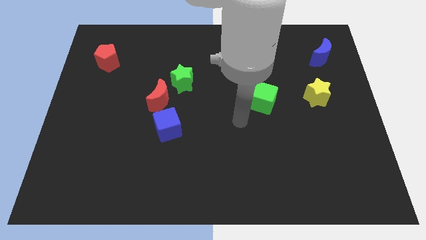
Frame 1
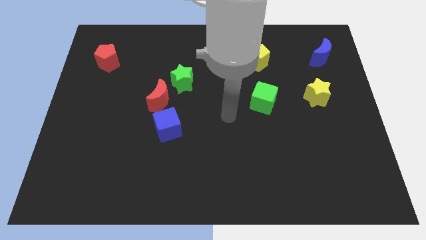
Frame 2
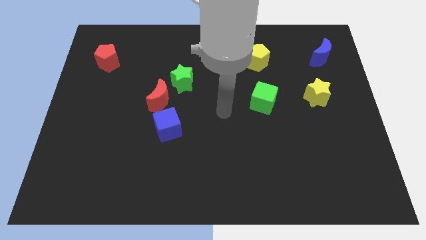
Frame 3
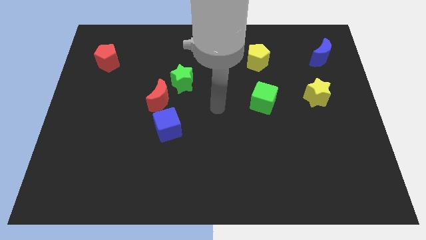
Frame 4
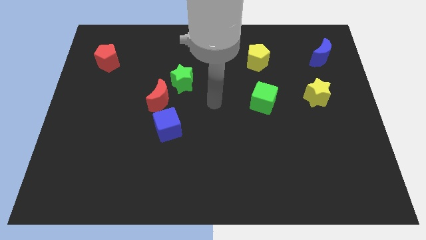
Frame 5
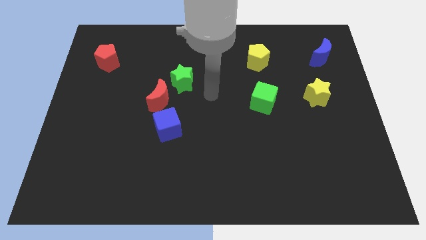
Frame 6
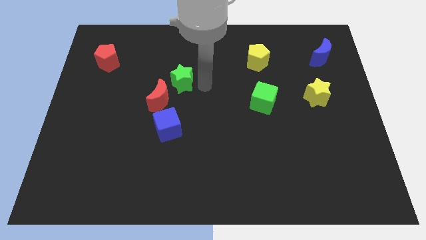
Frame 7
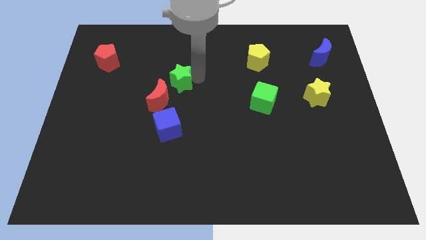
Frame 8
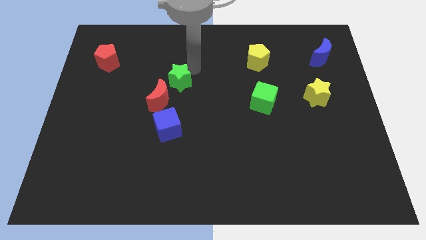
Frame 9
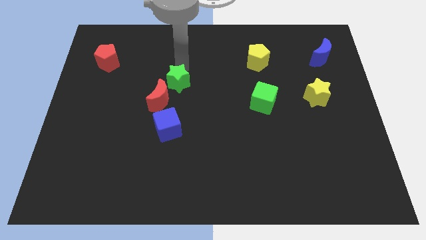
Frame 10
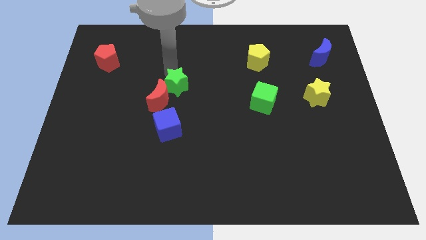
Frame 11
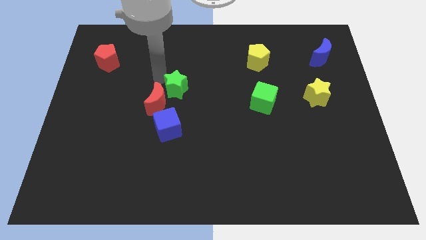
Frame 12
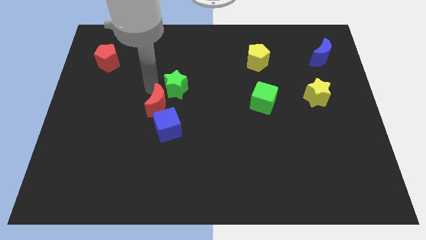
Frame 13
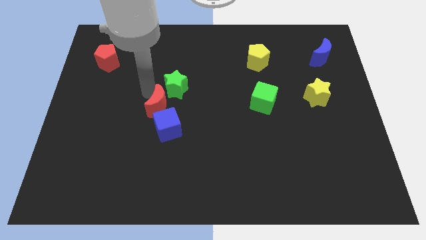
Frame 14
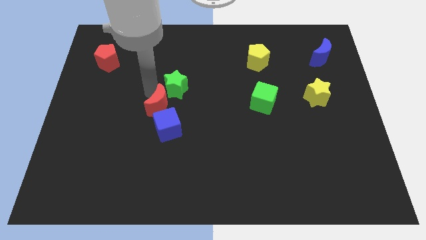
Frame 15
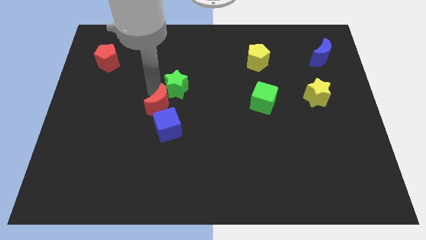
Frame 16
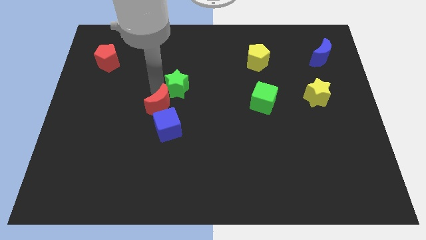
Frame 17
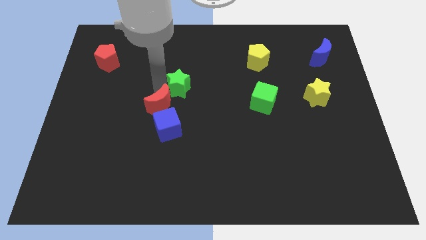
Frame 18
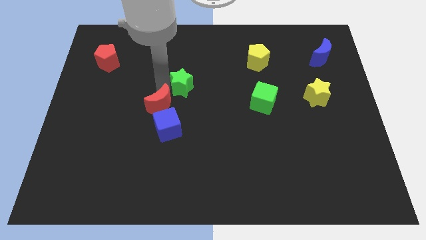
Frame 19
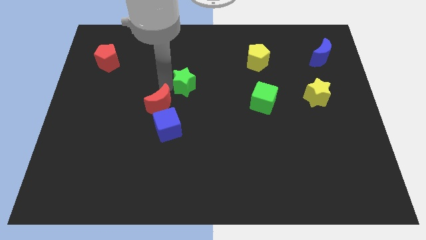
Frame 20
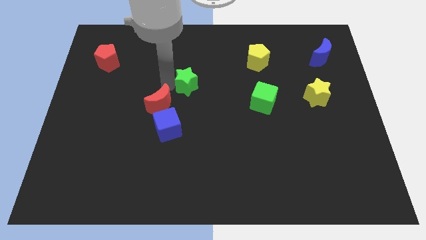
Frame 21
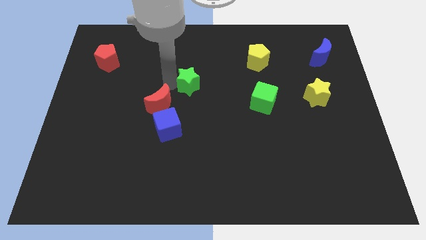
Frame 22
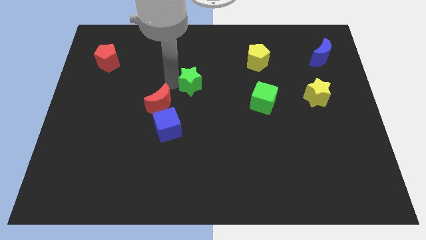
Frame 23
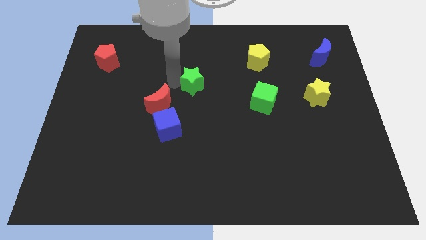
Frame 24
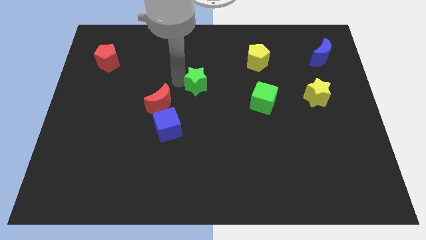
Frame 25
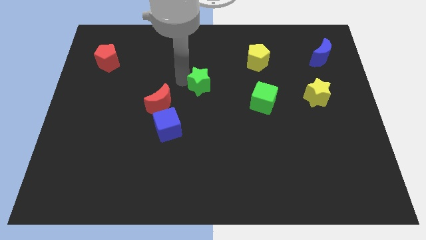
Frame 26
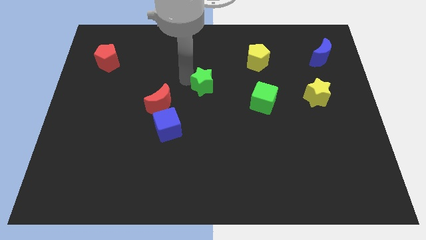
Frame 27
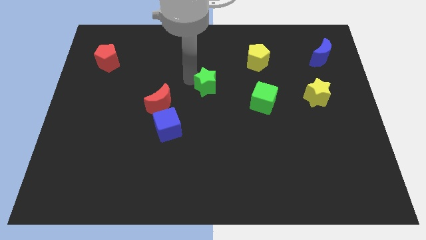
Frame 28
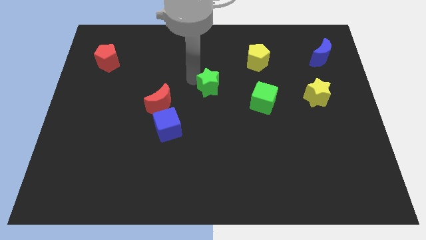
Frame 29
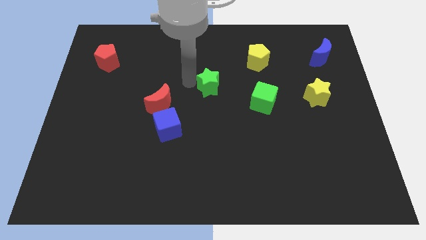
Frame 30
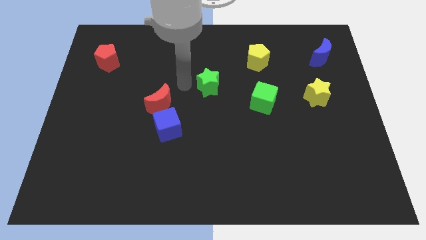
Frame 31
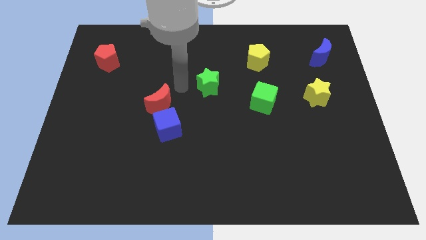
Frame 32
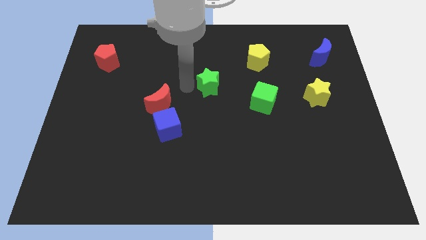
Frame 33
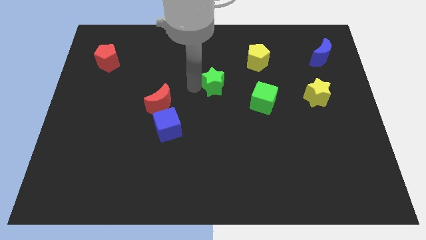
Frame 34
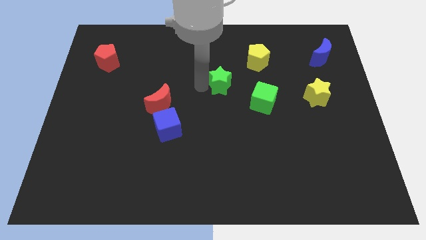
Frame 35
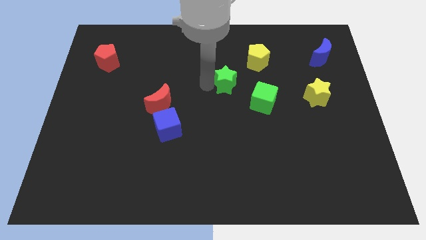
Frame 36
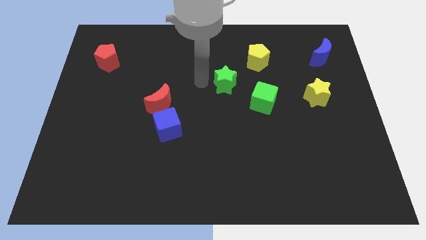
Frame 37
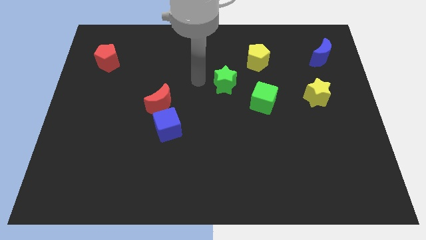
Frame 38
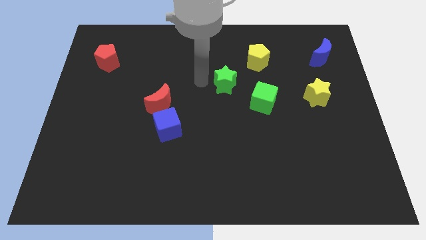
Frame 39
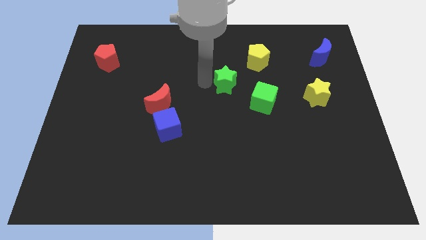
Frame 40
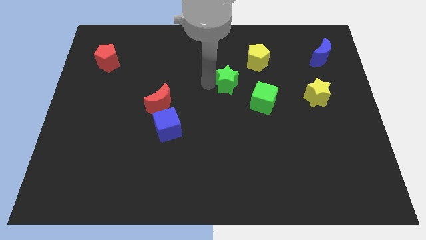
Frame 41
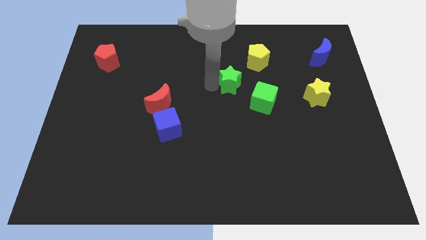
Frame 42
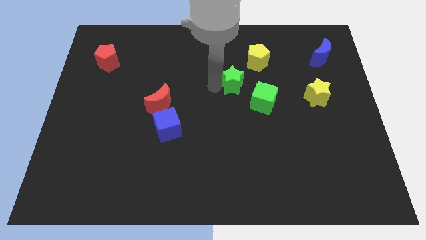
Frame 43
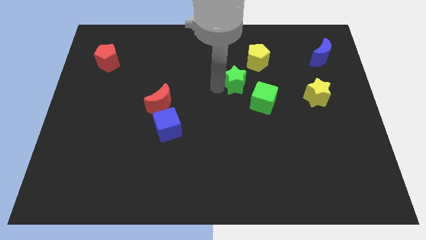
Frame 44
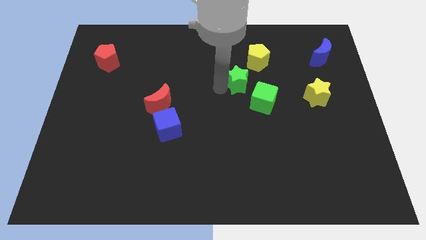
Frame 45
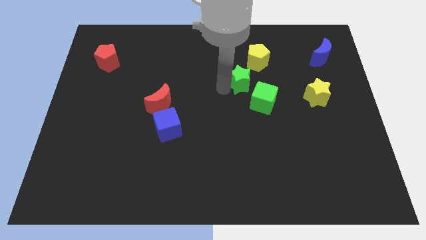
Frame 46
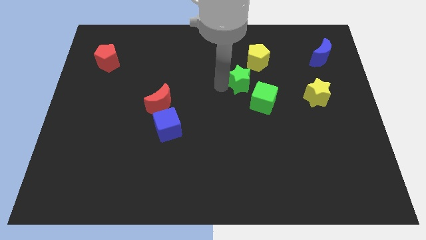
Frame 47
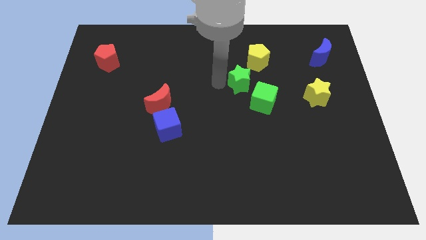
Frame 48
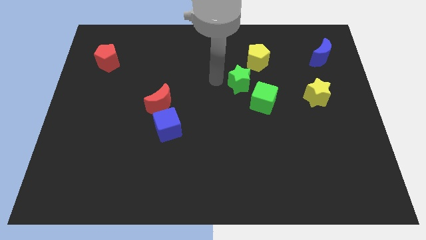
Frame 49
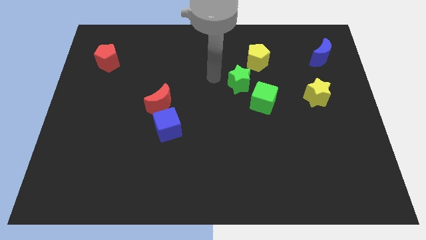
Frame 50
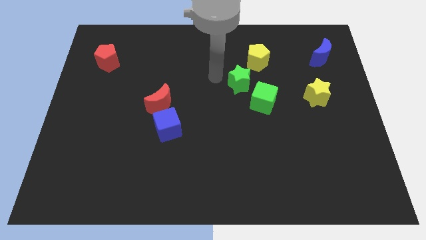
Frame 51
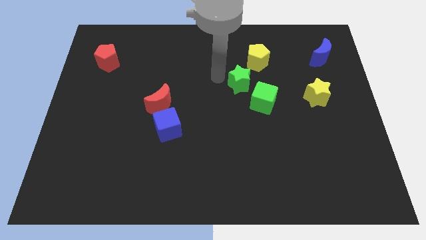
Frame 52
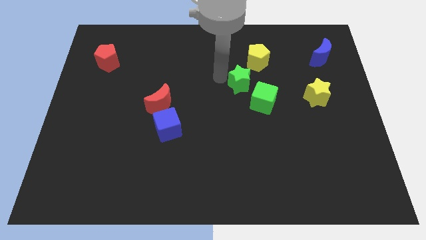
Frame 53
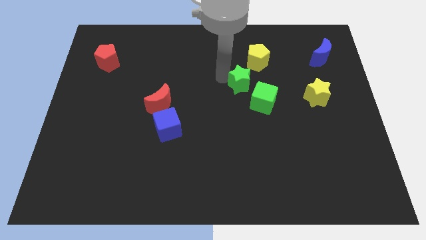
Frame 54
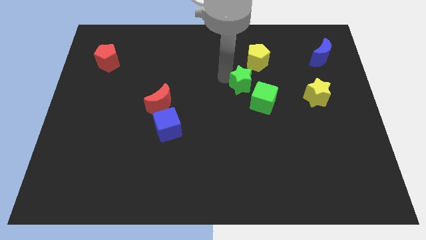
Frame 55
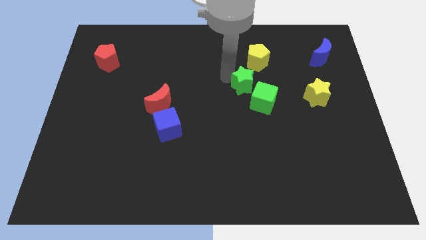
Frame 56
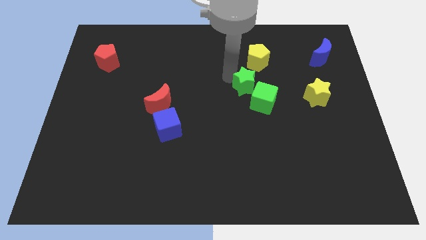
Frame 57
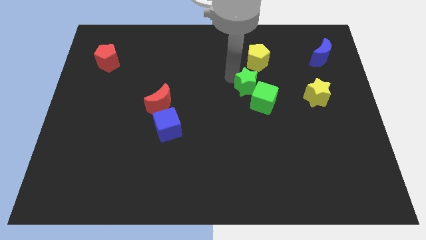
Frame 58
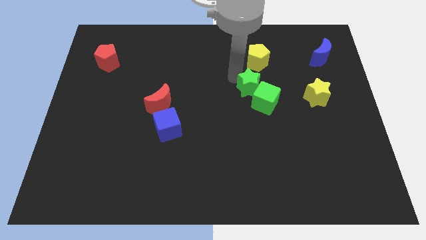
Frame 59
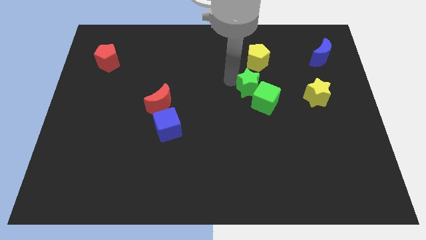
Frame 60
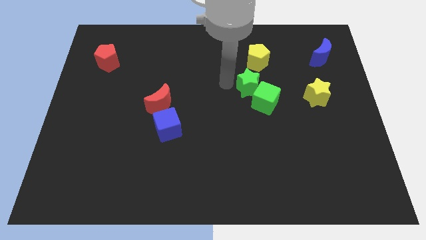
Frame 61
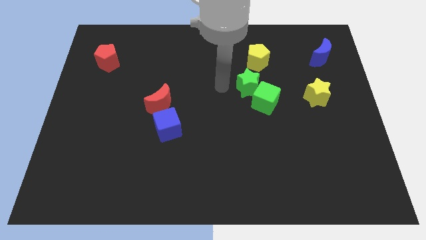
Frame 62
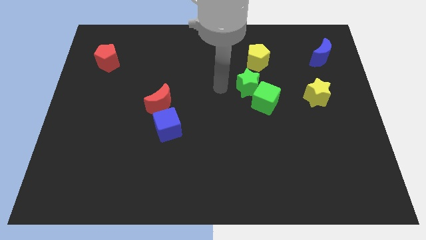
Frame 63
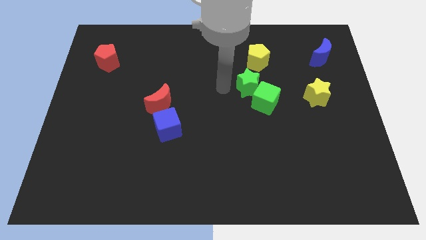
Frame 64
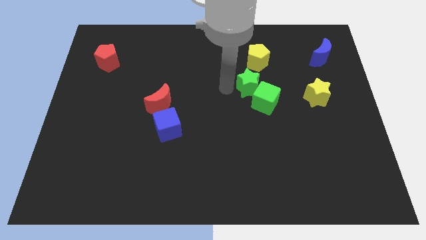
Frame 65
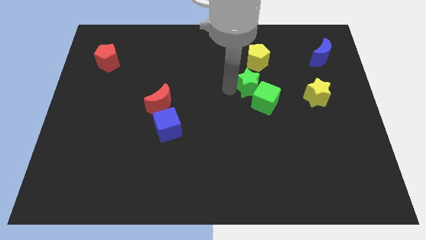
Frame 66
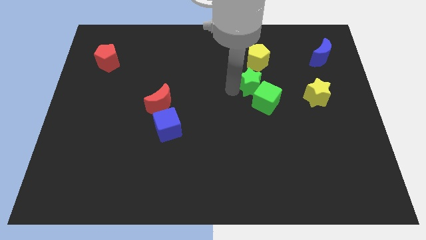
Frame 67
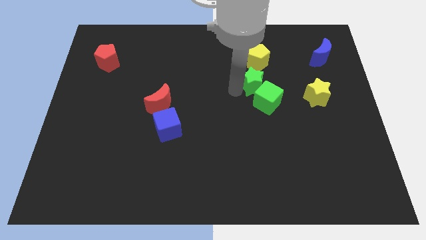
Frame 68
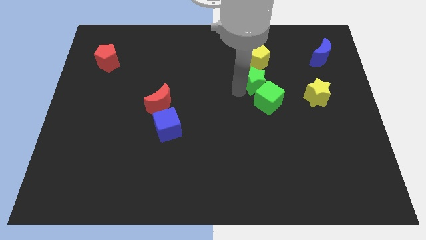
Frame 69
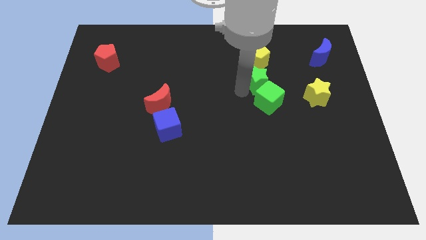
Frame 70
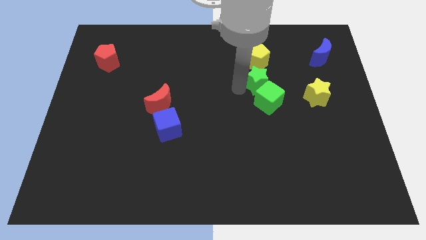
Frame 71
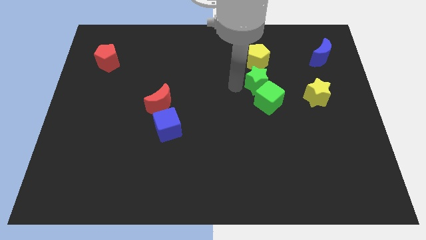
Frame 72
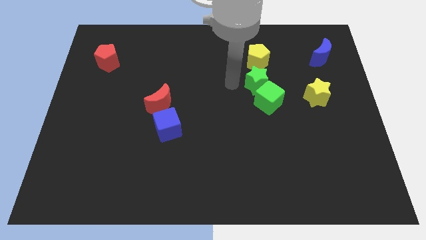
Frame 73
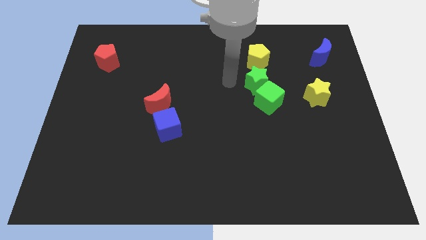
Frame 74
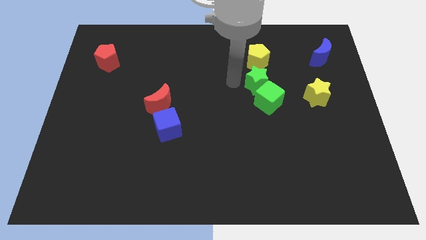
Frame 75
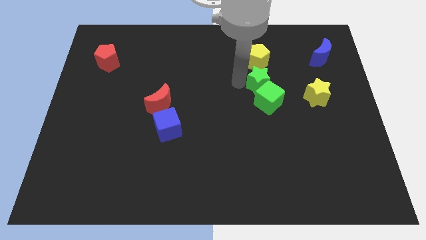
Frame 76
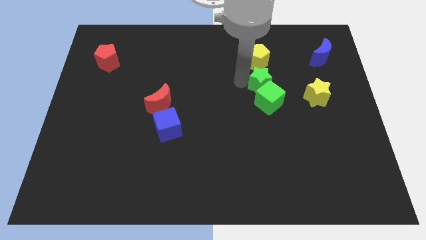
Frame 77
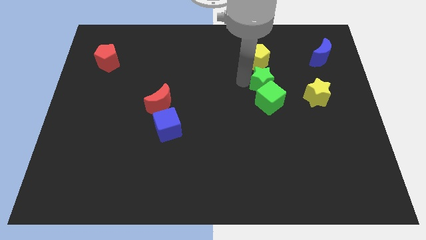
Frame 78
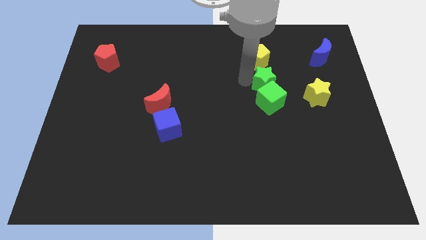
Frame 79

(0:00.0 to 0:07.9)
move the green star to the right

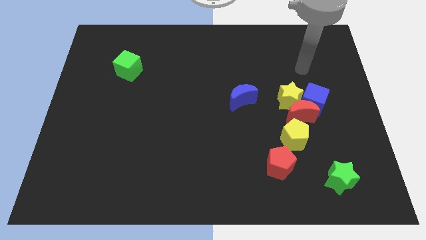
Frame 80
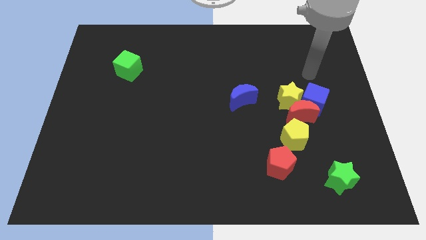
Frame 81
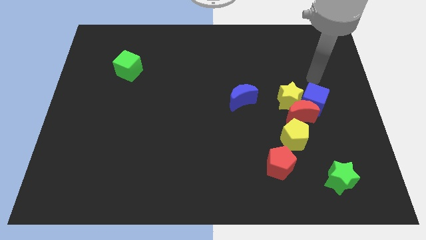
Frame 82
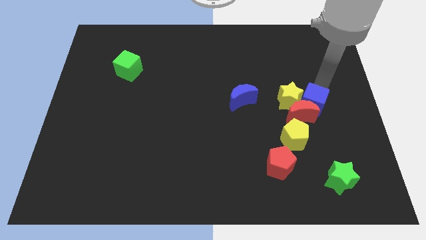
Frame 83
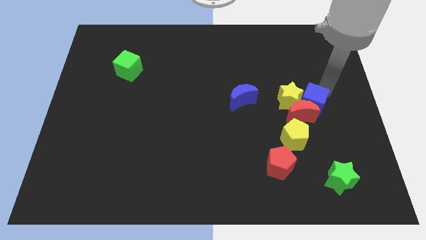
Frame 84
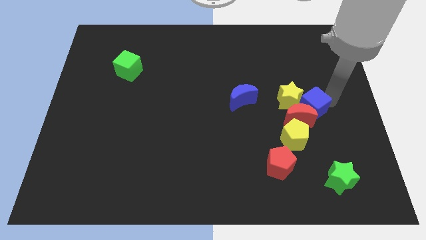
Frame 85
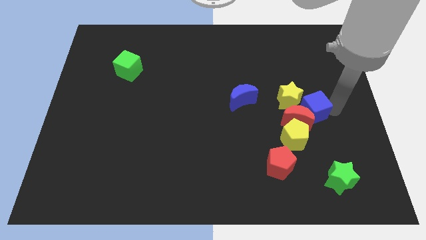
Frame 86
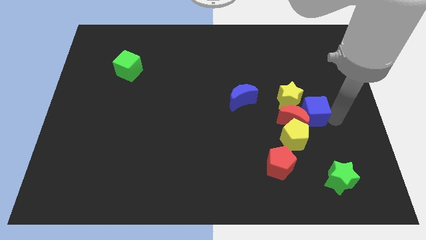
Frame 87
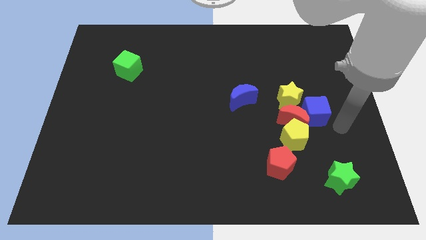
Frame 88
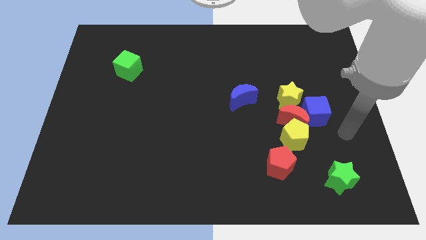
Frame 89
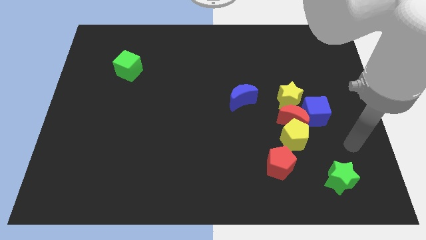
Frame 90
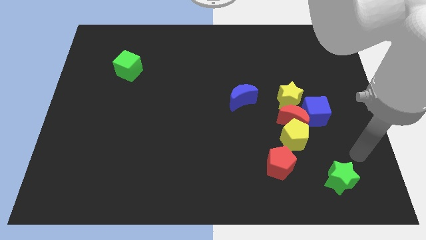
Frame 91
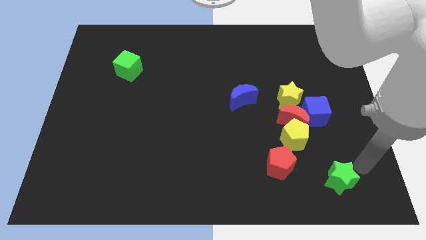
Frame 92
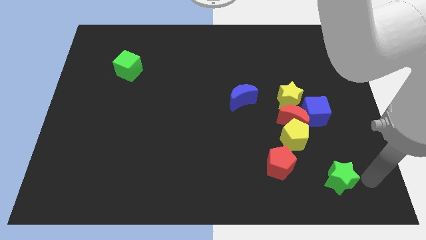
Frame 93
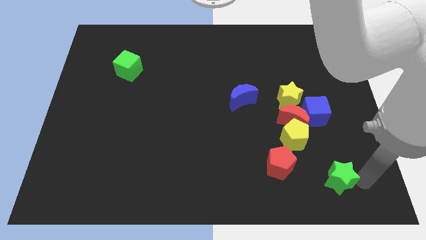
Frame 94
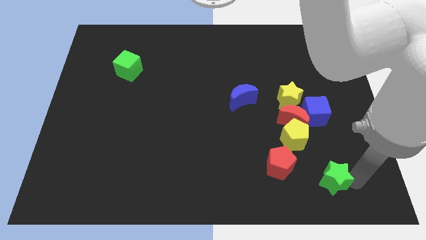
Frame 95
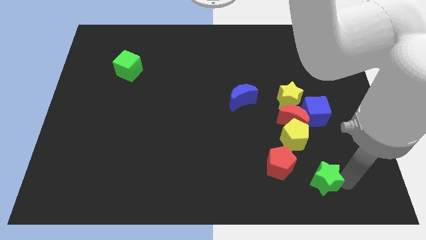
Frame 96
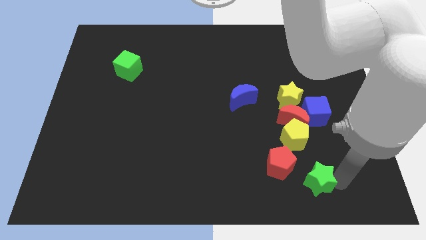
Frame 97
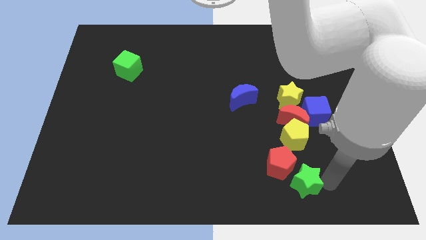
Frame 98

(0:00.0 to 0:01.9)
slide the green star somewhat to the left
